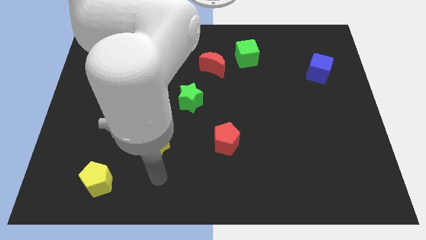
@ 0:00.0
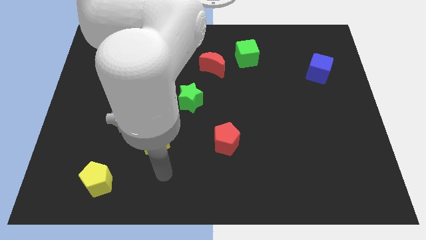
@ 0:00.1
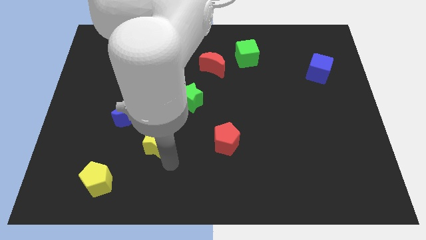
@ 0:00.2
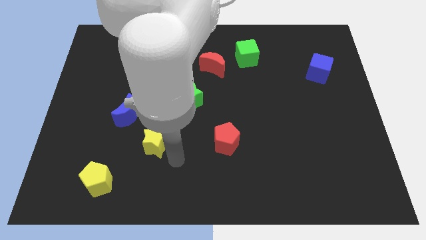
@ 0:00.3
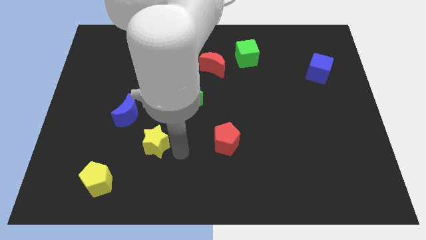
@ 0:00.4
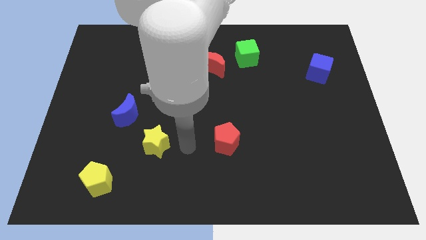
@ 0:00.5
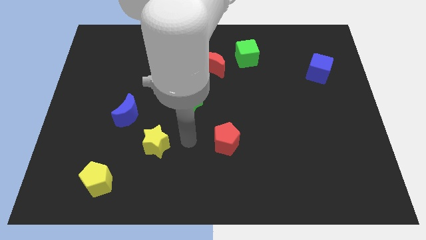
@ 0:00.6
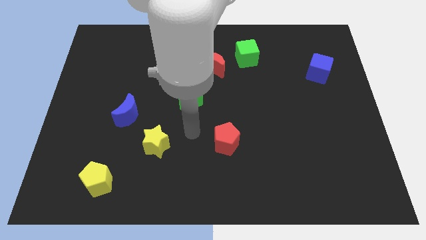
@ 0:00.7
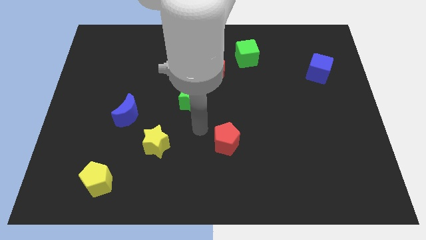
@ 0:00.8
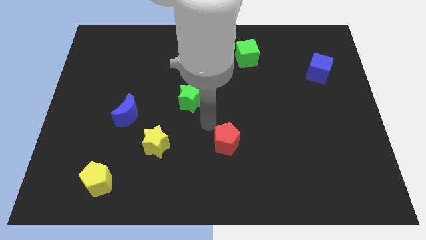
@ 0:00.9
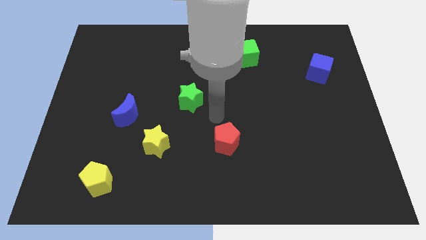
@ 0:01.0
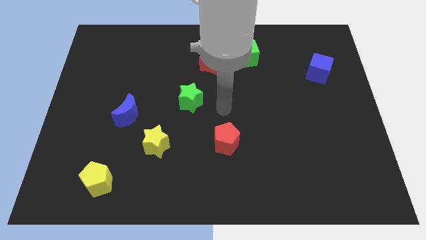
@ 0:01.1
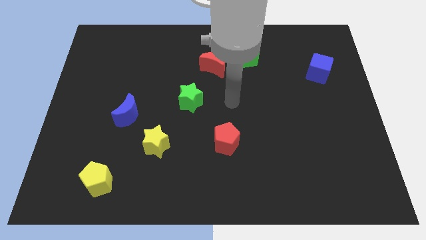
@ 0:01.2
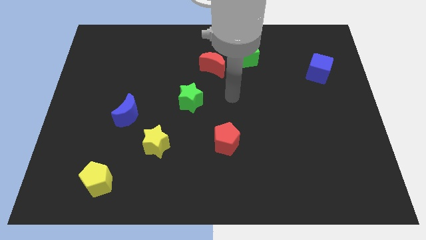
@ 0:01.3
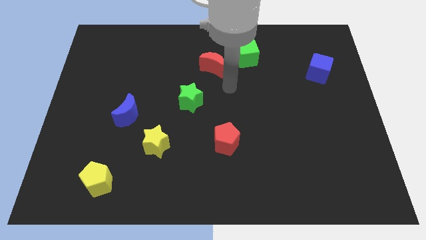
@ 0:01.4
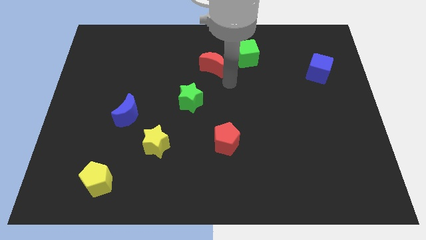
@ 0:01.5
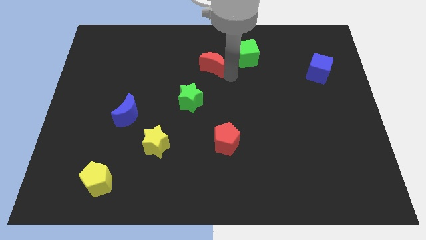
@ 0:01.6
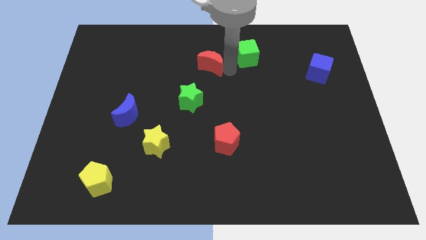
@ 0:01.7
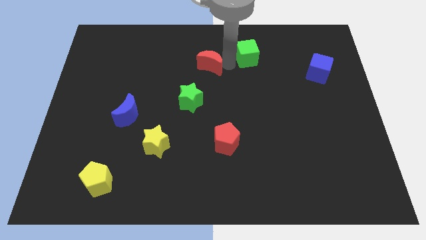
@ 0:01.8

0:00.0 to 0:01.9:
move the red moon away from the green cube

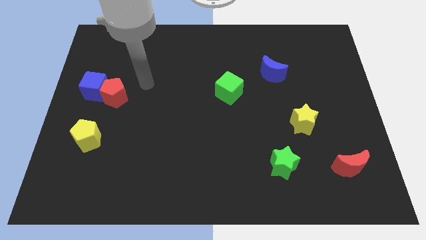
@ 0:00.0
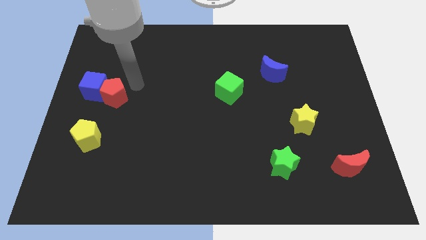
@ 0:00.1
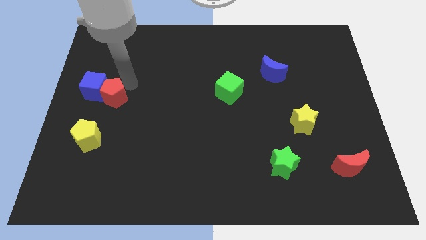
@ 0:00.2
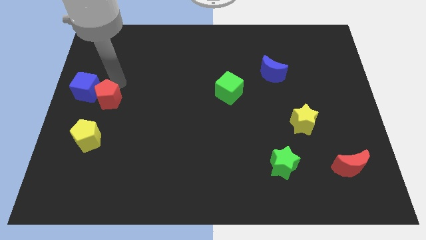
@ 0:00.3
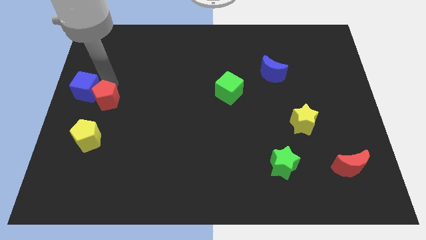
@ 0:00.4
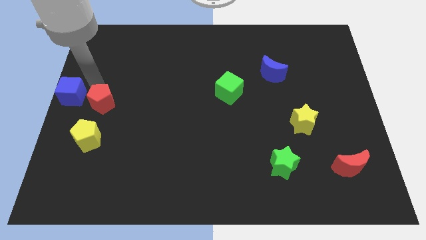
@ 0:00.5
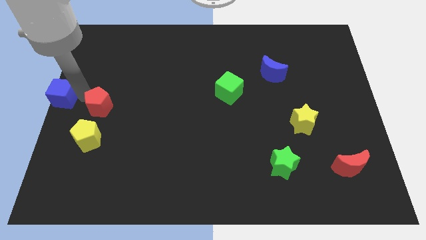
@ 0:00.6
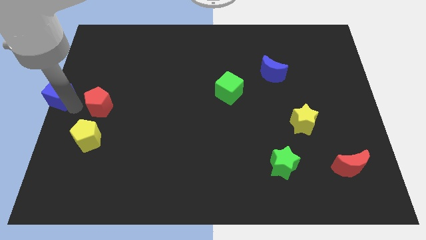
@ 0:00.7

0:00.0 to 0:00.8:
move the red pentagon away from the blue cube

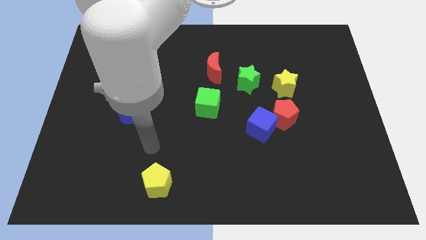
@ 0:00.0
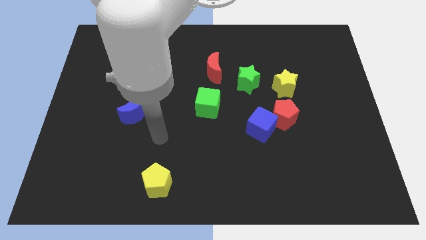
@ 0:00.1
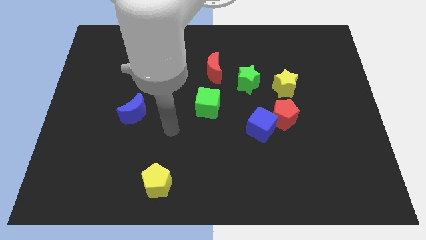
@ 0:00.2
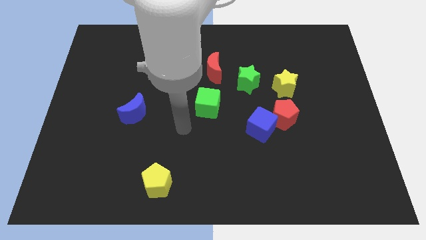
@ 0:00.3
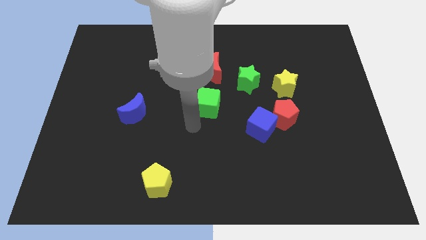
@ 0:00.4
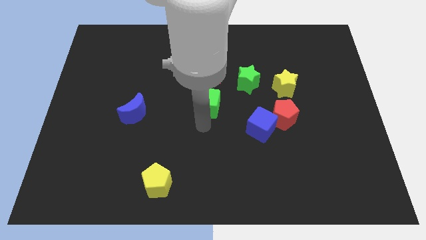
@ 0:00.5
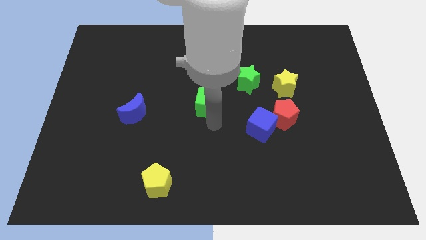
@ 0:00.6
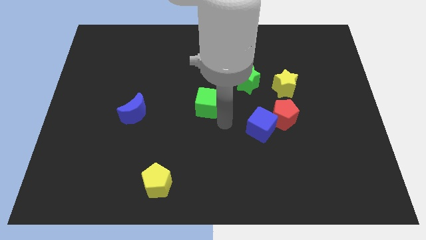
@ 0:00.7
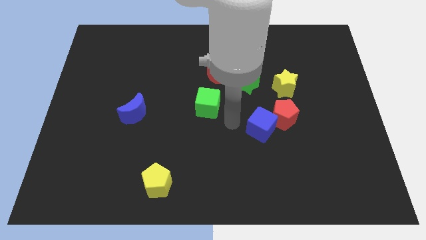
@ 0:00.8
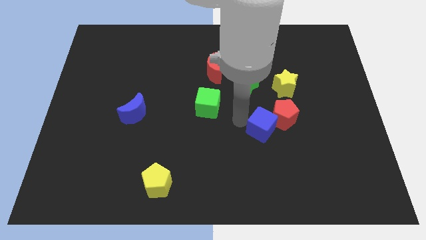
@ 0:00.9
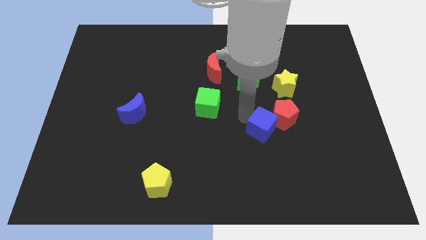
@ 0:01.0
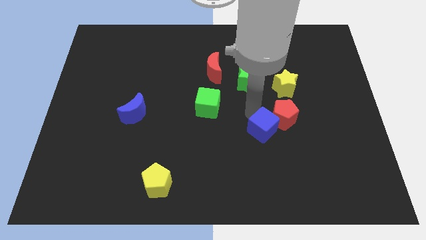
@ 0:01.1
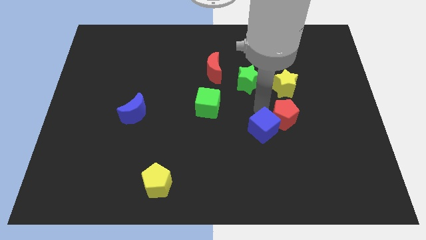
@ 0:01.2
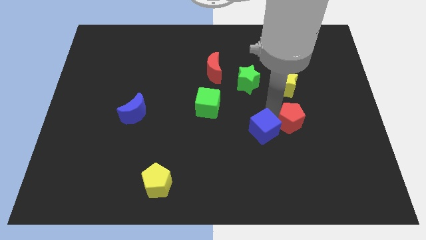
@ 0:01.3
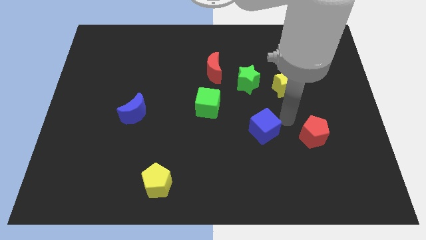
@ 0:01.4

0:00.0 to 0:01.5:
separate the blue cube from the red pentagon

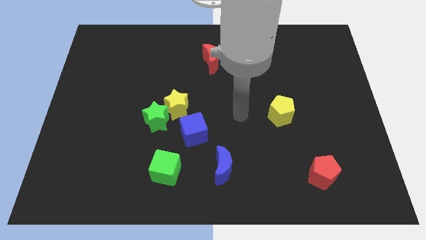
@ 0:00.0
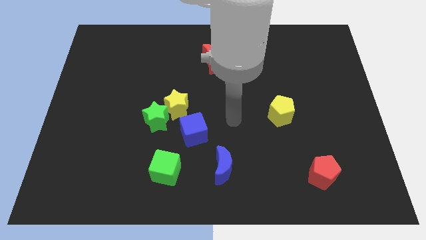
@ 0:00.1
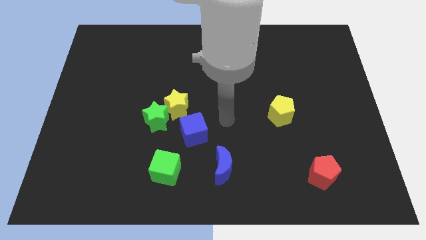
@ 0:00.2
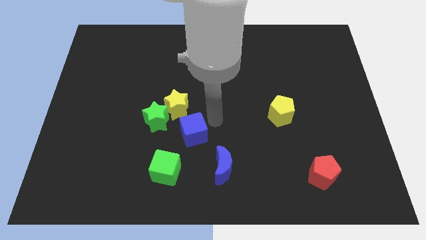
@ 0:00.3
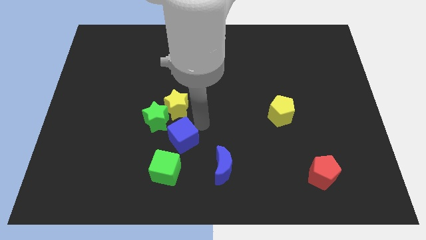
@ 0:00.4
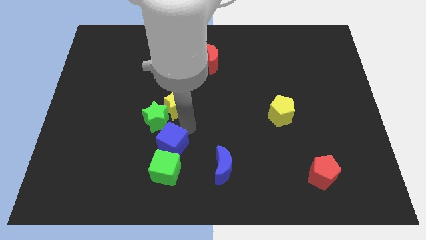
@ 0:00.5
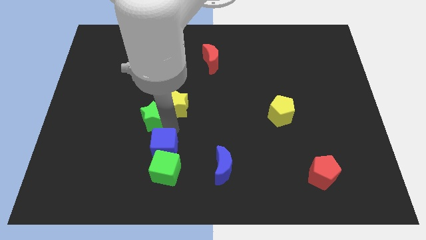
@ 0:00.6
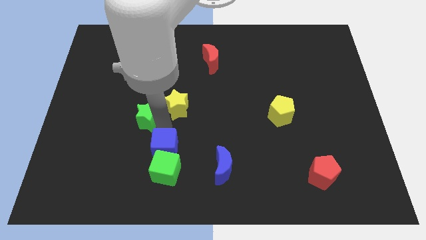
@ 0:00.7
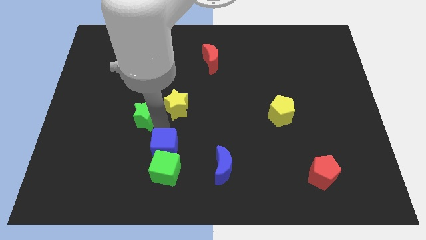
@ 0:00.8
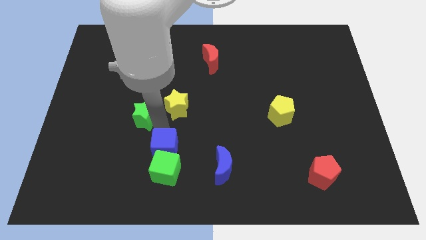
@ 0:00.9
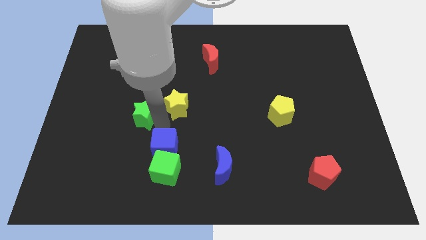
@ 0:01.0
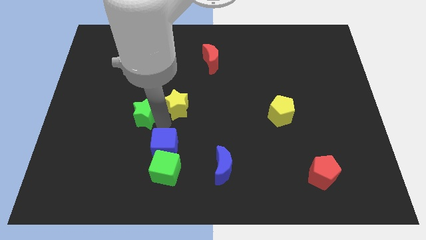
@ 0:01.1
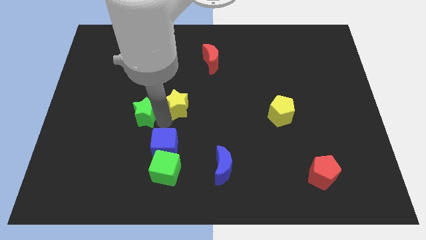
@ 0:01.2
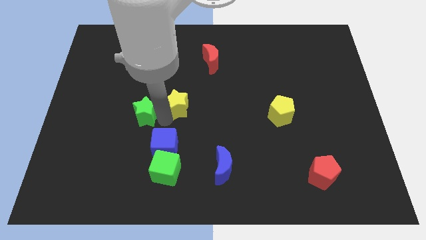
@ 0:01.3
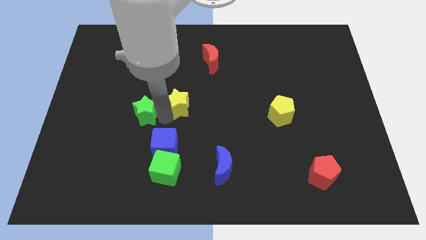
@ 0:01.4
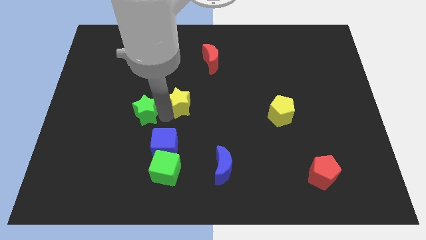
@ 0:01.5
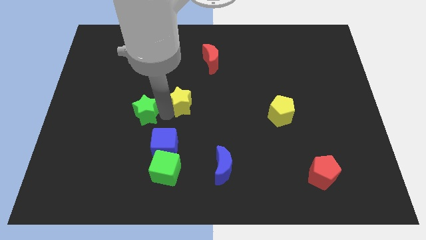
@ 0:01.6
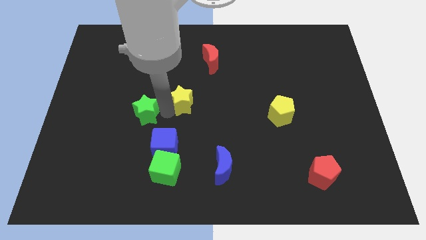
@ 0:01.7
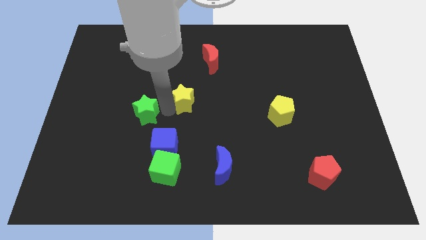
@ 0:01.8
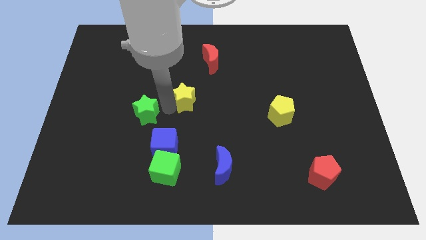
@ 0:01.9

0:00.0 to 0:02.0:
separate the yellow star from the green star and blue cube

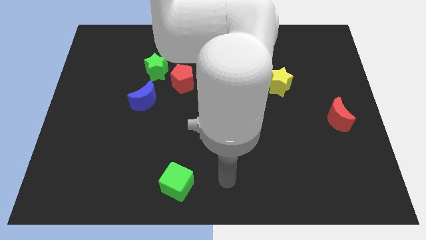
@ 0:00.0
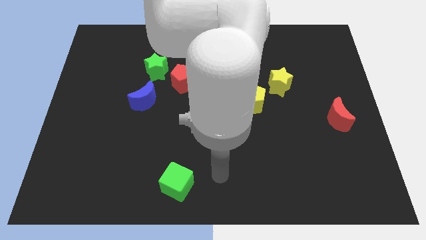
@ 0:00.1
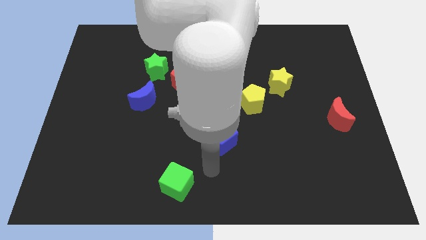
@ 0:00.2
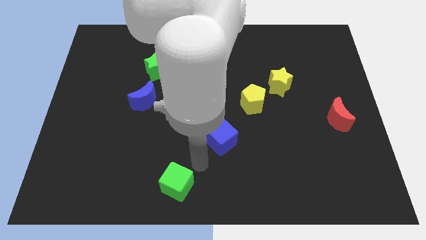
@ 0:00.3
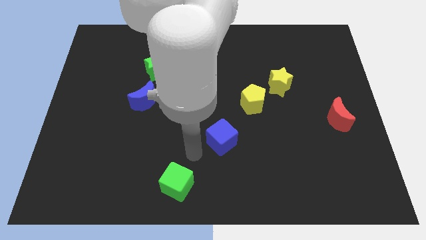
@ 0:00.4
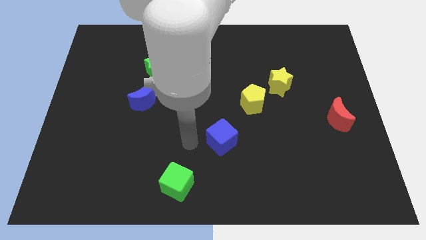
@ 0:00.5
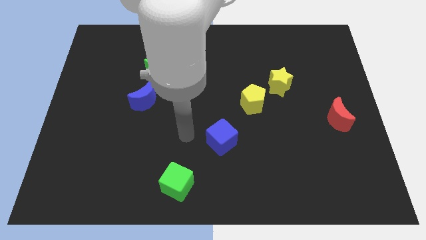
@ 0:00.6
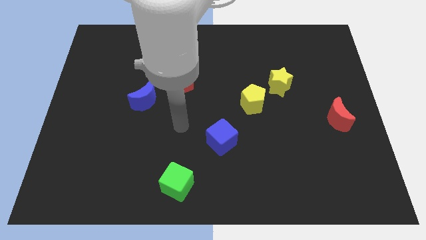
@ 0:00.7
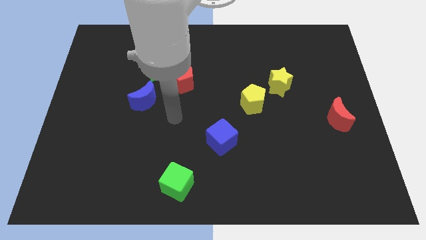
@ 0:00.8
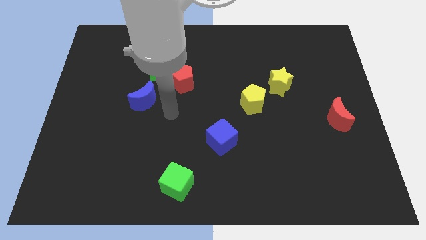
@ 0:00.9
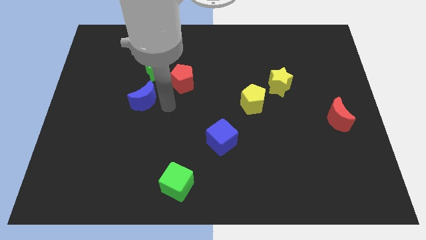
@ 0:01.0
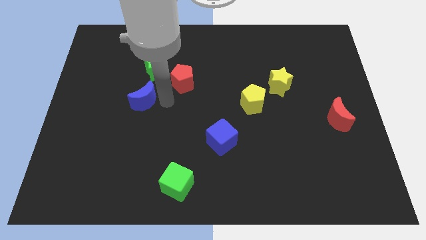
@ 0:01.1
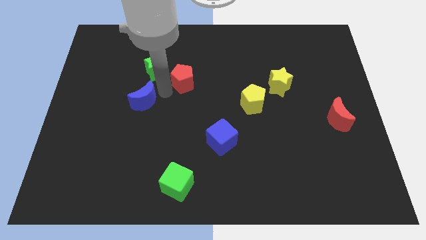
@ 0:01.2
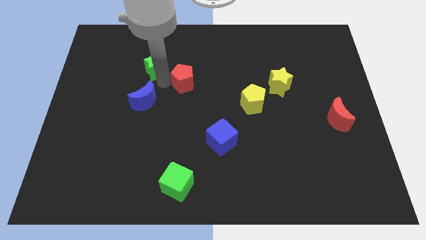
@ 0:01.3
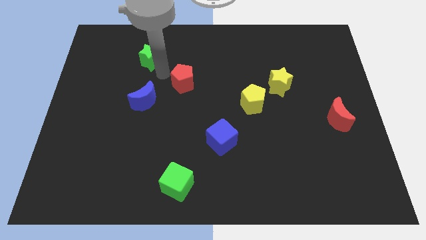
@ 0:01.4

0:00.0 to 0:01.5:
pull the red pentagon apart from the green star

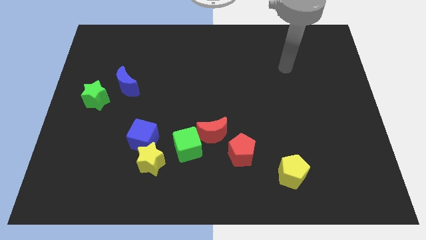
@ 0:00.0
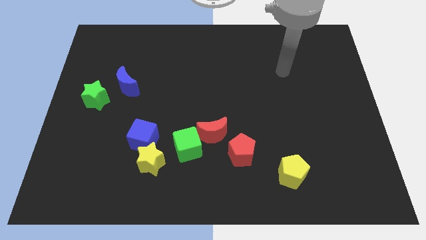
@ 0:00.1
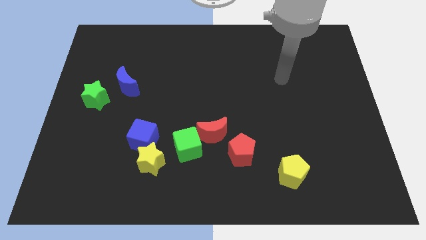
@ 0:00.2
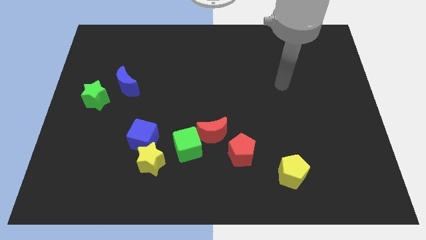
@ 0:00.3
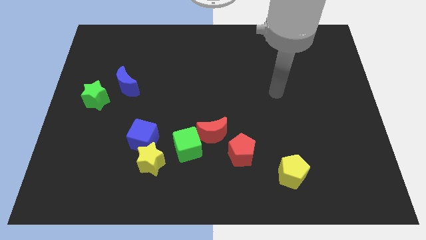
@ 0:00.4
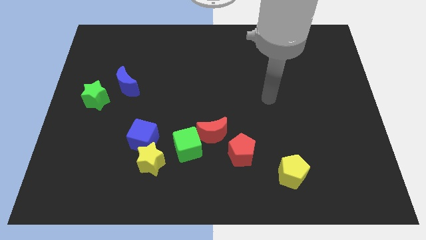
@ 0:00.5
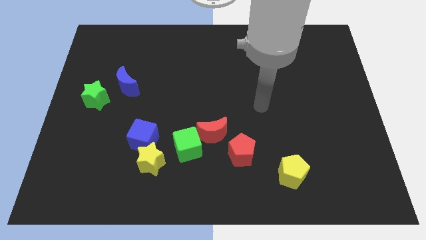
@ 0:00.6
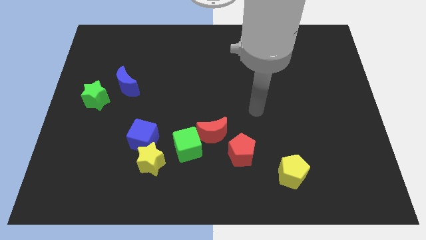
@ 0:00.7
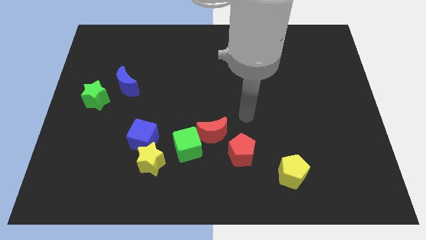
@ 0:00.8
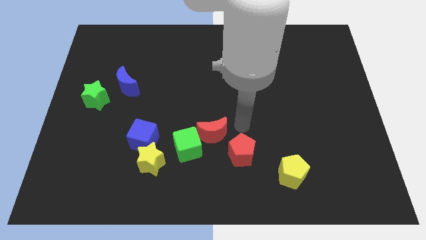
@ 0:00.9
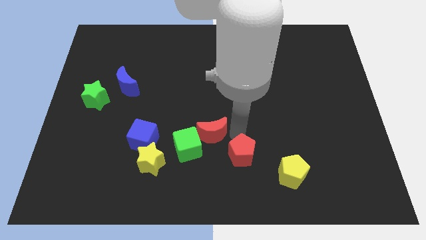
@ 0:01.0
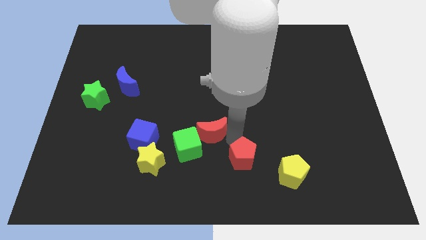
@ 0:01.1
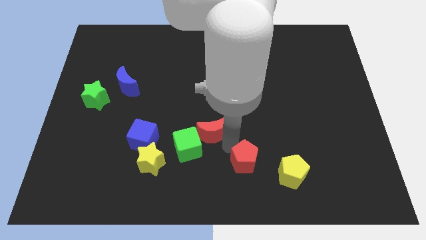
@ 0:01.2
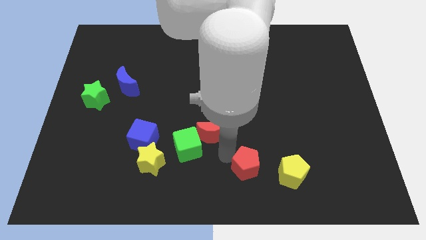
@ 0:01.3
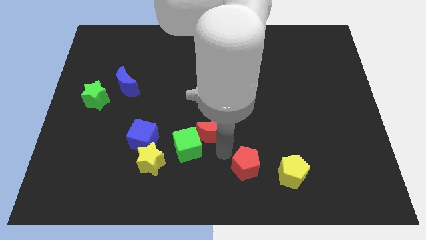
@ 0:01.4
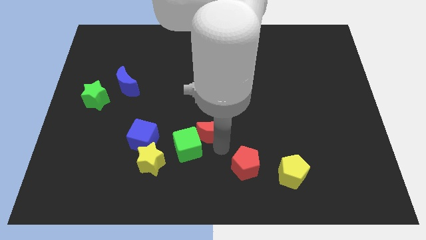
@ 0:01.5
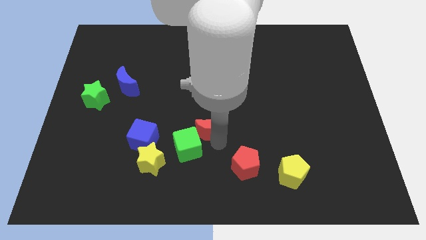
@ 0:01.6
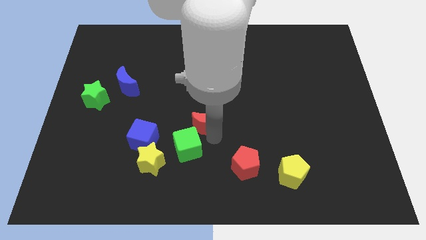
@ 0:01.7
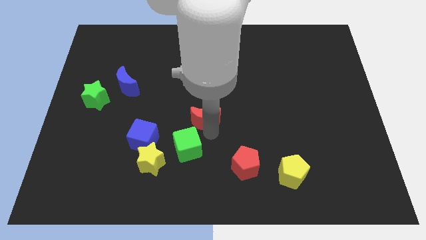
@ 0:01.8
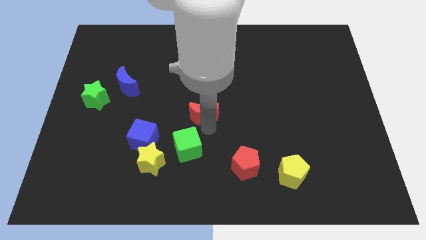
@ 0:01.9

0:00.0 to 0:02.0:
separate the red moon from the green cube and red pentagon
